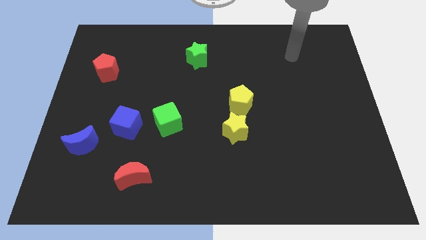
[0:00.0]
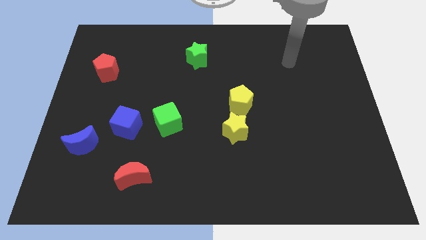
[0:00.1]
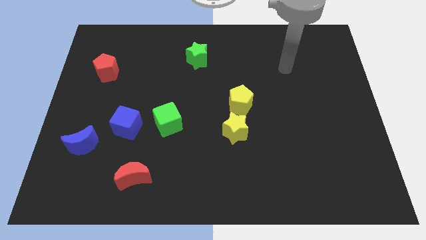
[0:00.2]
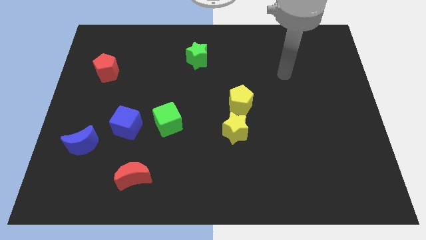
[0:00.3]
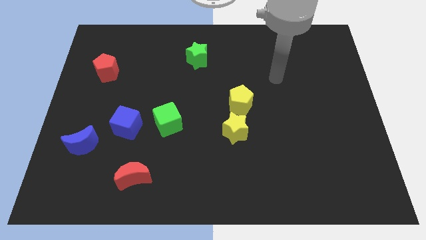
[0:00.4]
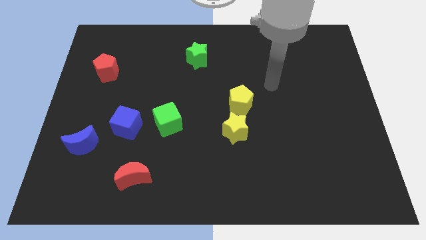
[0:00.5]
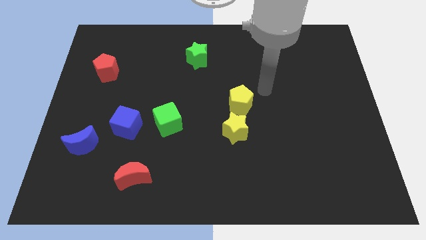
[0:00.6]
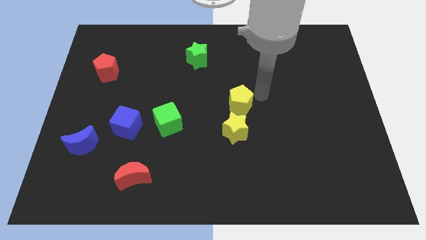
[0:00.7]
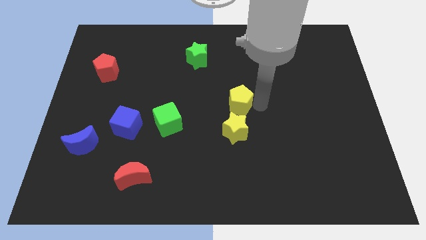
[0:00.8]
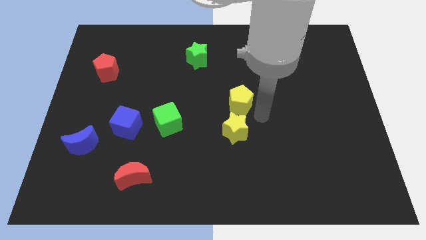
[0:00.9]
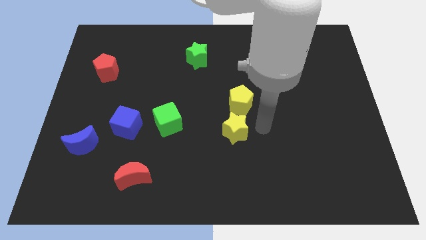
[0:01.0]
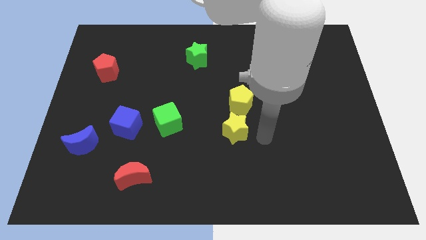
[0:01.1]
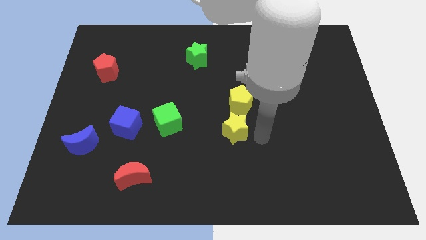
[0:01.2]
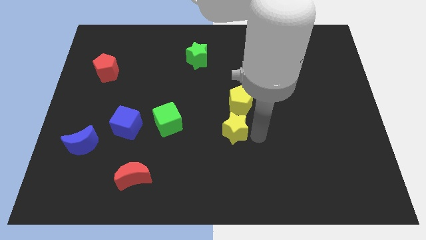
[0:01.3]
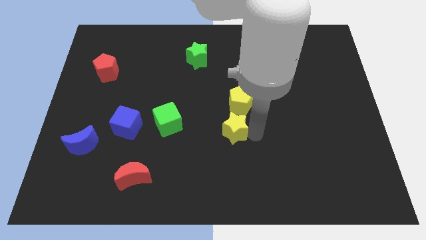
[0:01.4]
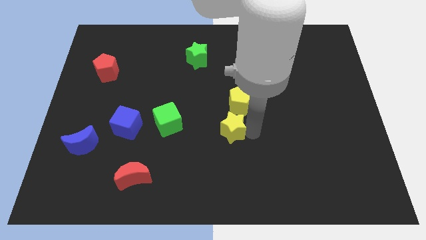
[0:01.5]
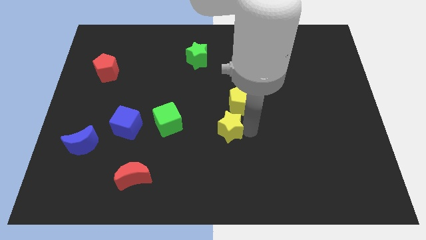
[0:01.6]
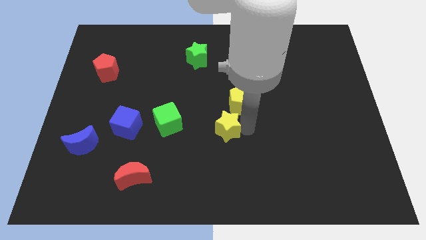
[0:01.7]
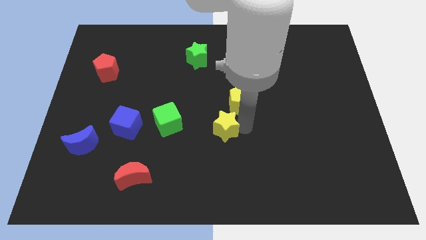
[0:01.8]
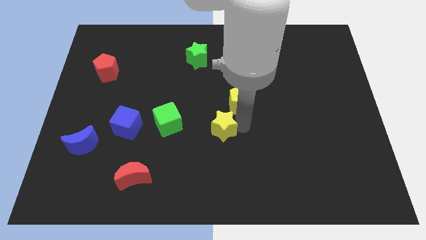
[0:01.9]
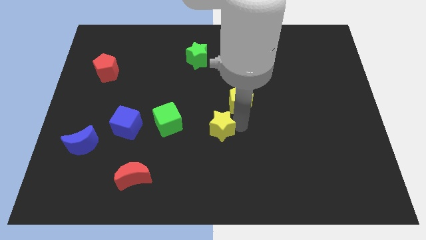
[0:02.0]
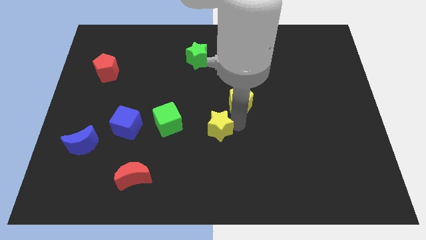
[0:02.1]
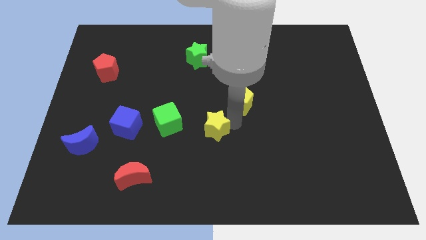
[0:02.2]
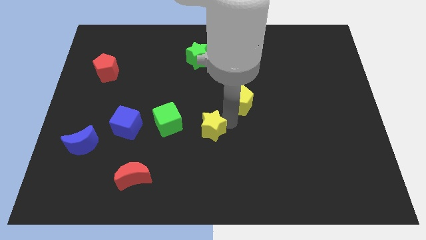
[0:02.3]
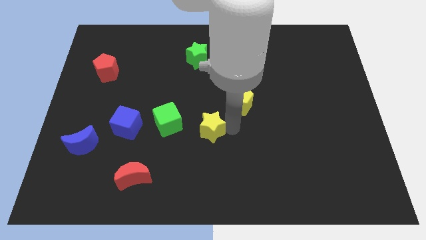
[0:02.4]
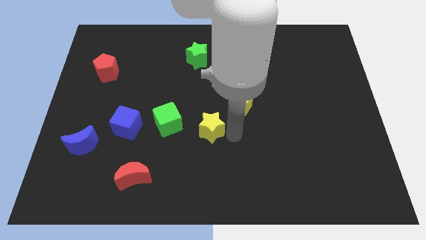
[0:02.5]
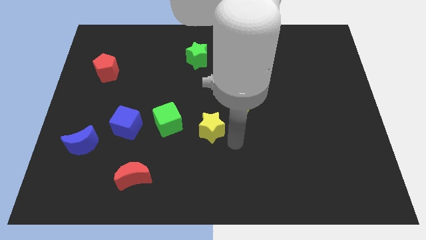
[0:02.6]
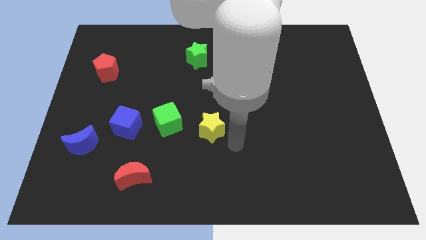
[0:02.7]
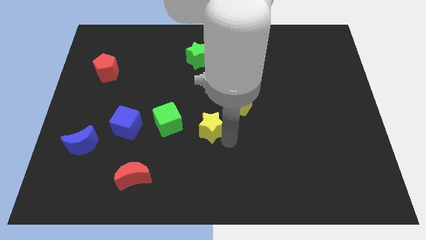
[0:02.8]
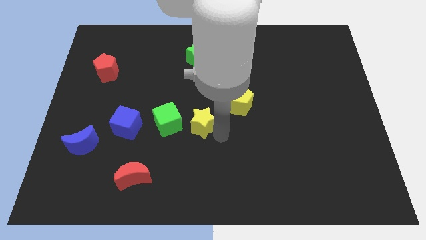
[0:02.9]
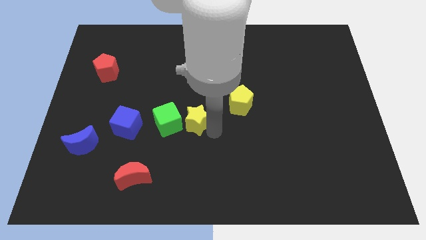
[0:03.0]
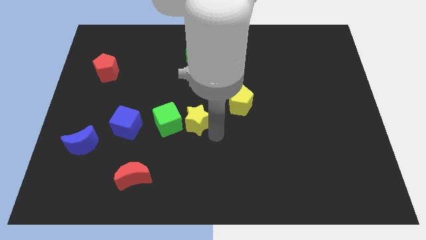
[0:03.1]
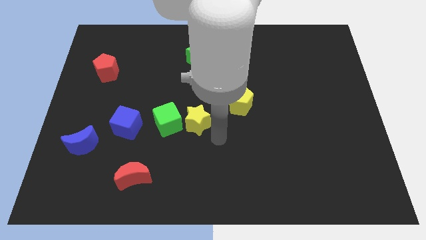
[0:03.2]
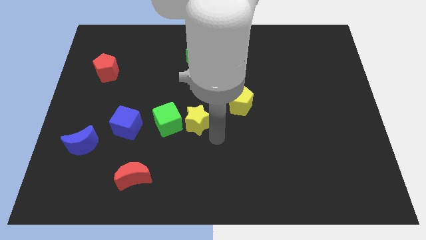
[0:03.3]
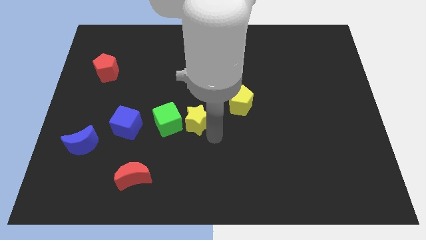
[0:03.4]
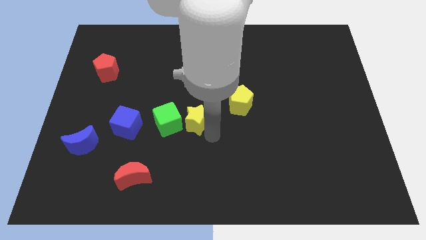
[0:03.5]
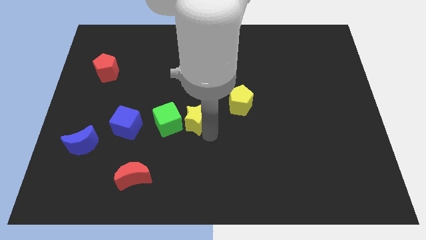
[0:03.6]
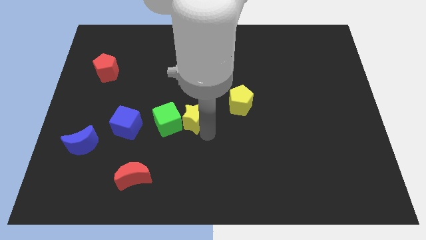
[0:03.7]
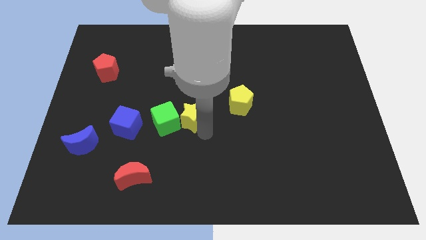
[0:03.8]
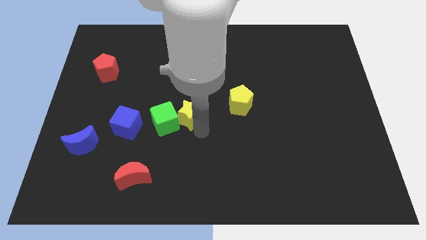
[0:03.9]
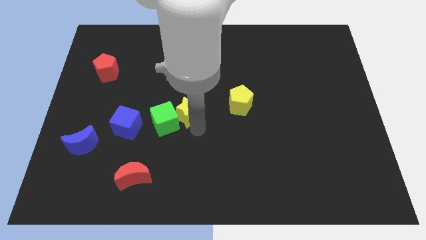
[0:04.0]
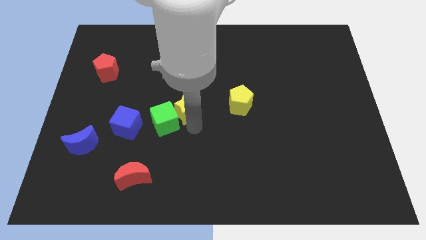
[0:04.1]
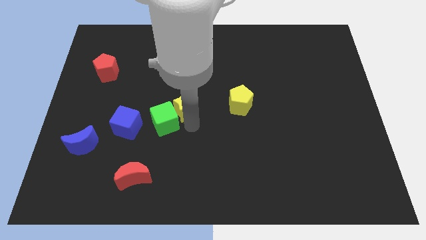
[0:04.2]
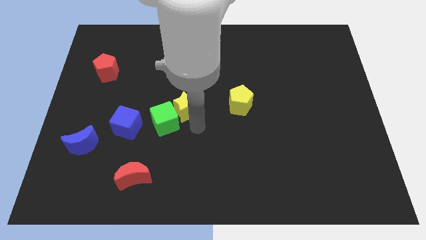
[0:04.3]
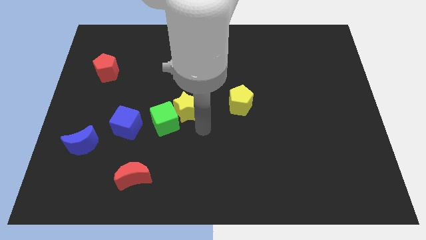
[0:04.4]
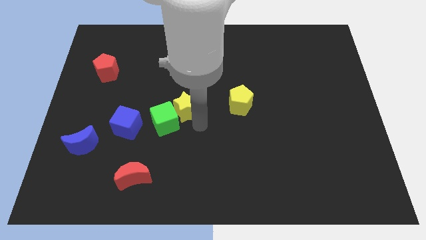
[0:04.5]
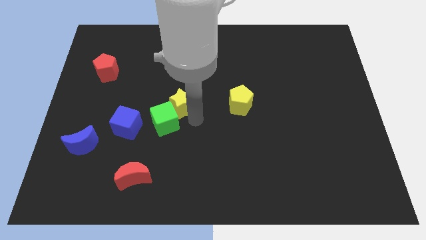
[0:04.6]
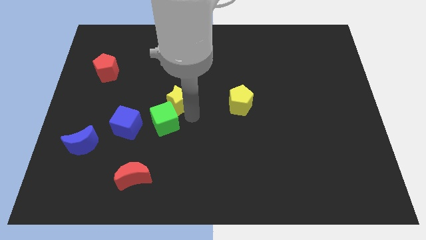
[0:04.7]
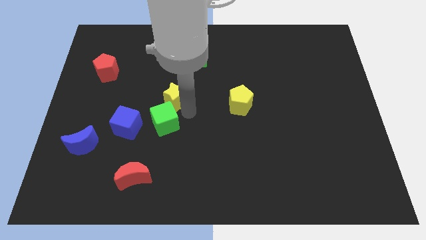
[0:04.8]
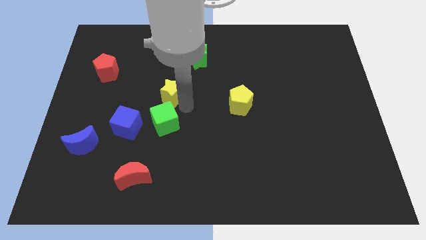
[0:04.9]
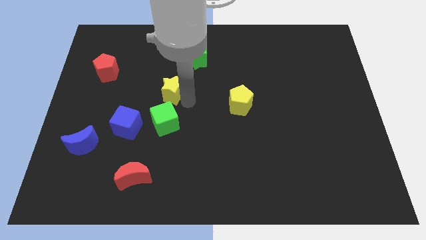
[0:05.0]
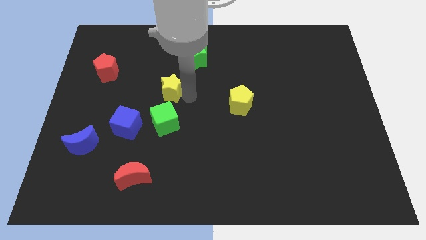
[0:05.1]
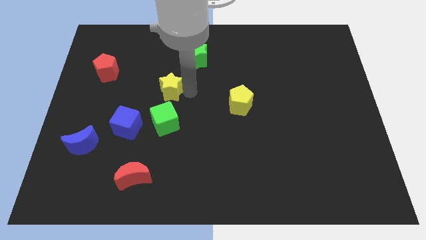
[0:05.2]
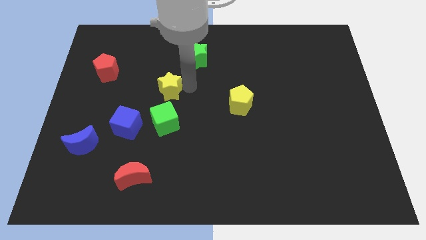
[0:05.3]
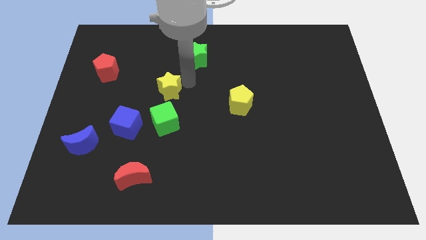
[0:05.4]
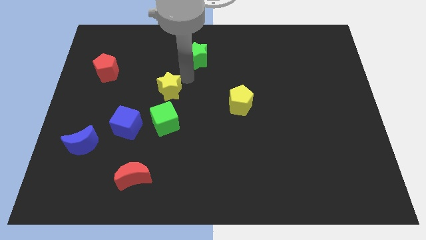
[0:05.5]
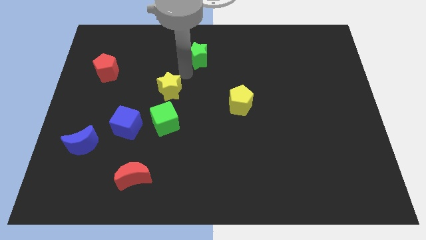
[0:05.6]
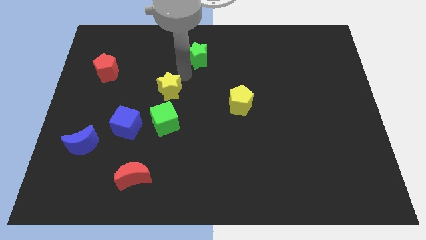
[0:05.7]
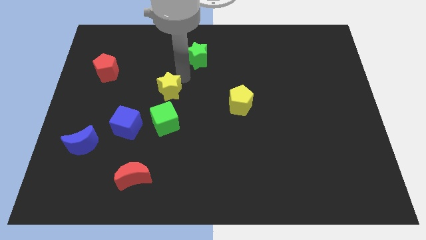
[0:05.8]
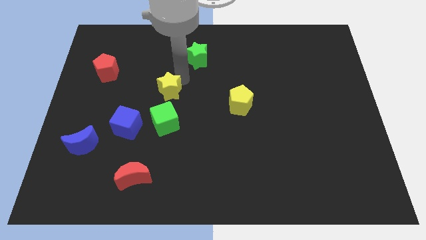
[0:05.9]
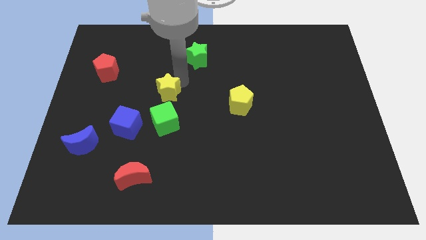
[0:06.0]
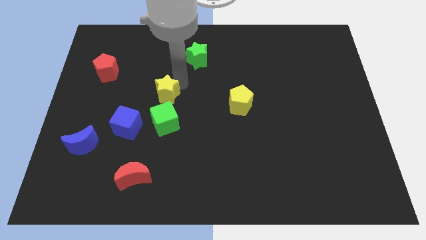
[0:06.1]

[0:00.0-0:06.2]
move the yellow star diagonally up and to the right of the blue cube
